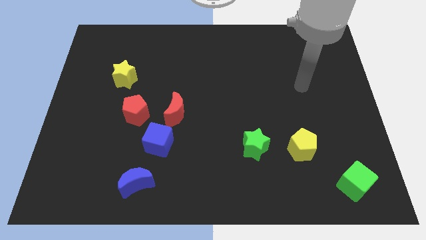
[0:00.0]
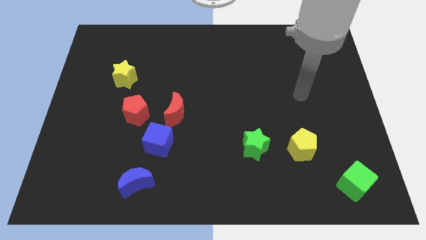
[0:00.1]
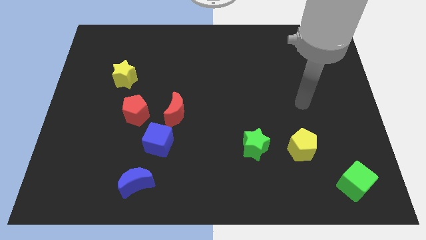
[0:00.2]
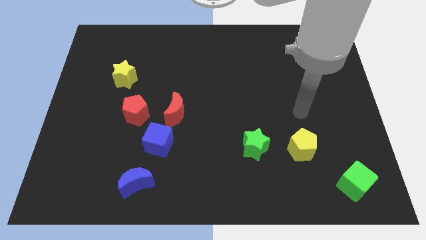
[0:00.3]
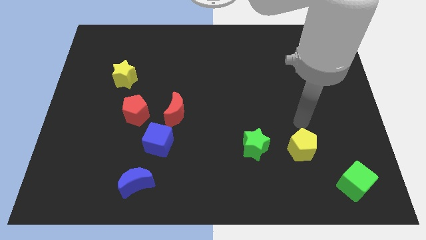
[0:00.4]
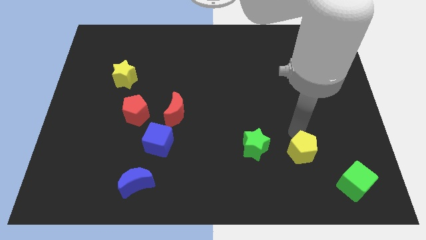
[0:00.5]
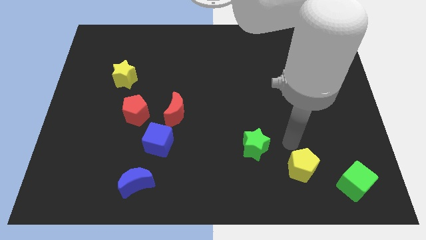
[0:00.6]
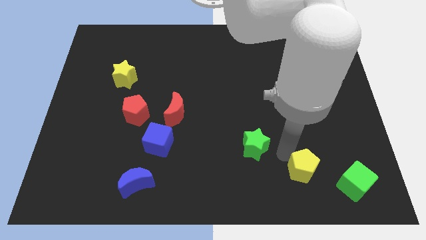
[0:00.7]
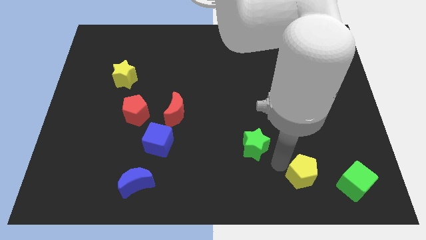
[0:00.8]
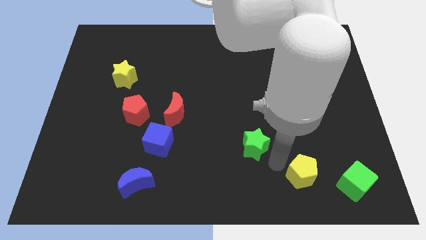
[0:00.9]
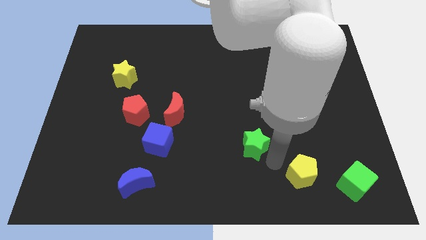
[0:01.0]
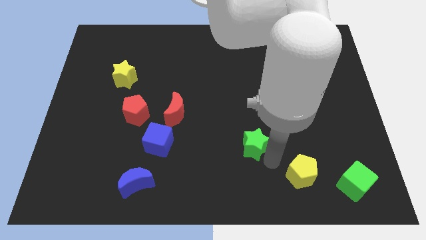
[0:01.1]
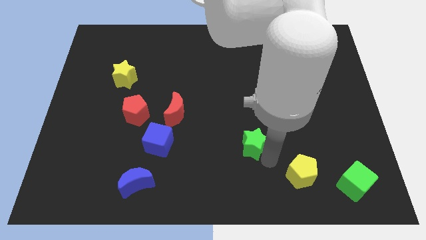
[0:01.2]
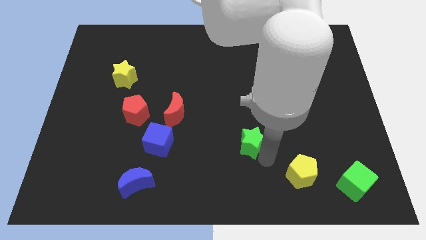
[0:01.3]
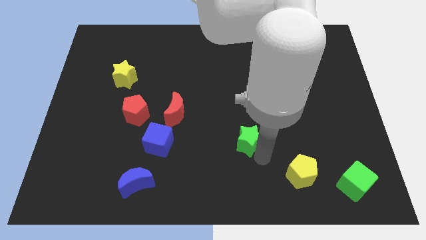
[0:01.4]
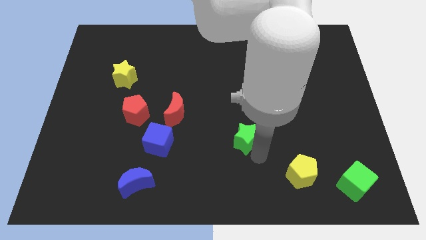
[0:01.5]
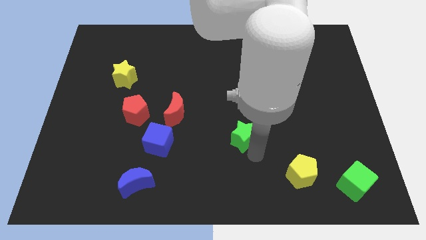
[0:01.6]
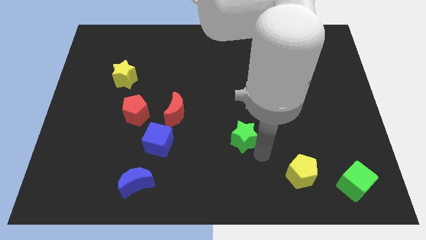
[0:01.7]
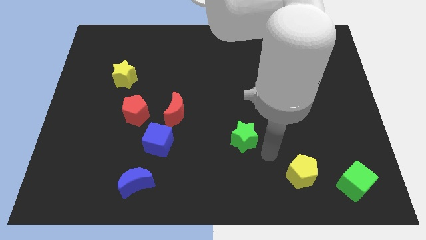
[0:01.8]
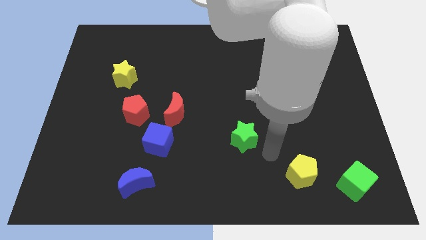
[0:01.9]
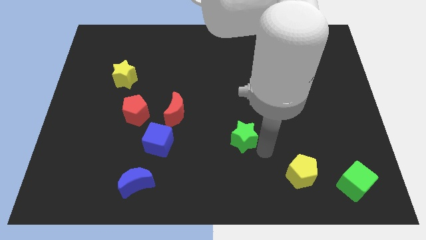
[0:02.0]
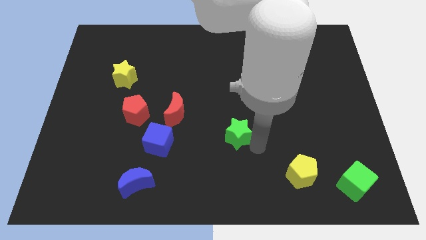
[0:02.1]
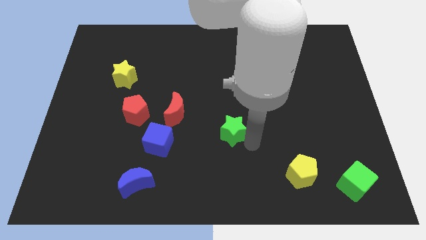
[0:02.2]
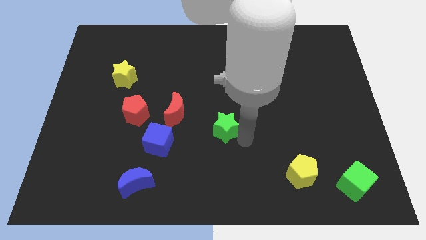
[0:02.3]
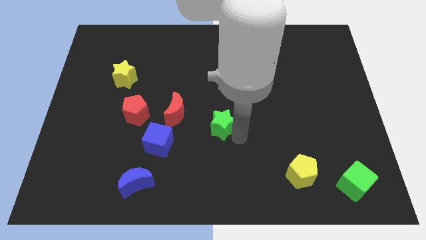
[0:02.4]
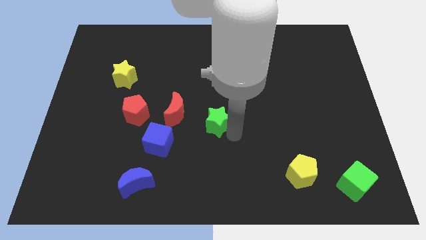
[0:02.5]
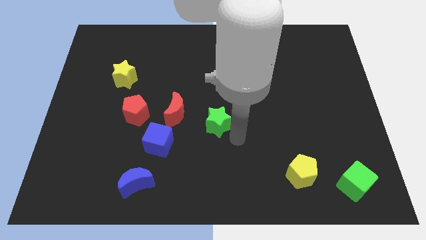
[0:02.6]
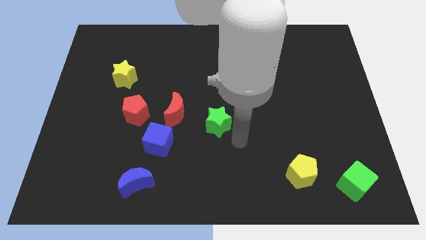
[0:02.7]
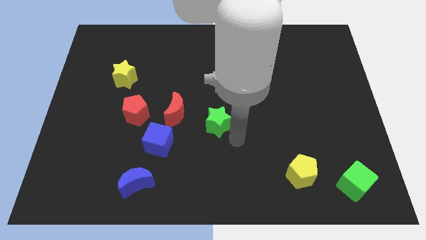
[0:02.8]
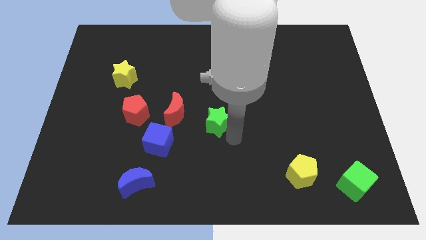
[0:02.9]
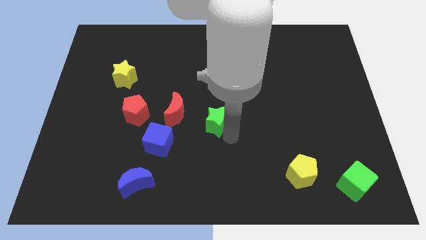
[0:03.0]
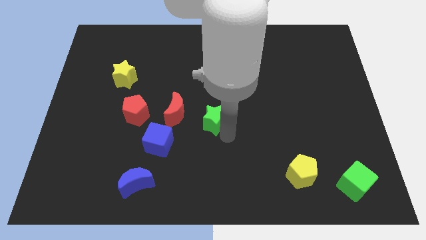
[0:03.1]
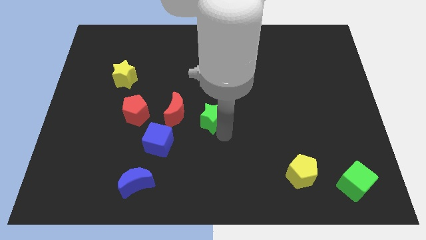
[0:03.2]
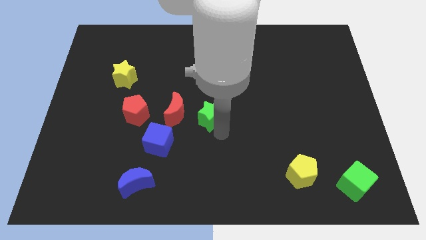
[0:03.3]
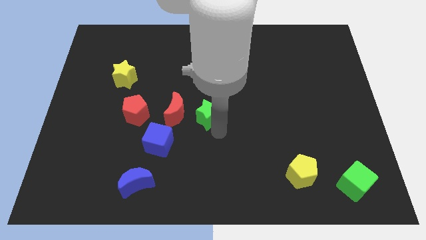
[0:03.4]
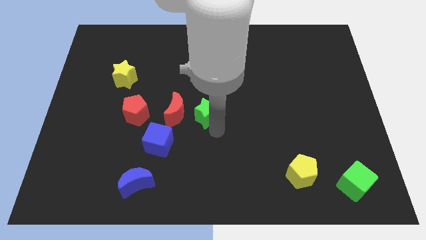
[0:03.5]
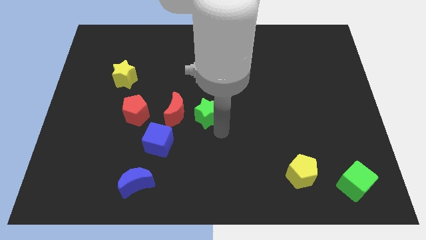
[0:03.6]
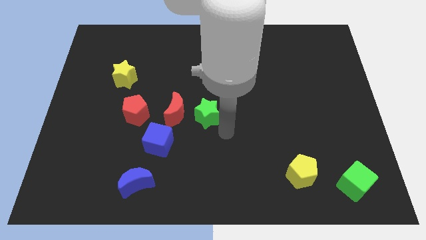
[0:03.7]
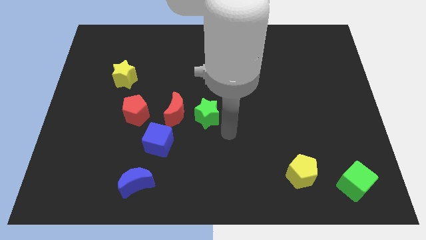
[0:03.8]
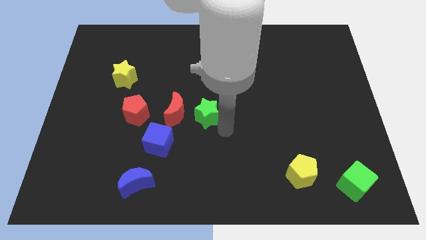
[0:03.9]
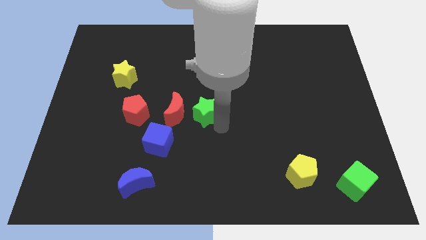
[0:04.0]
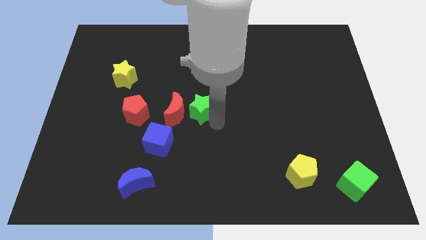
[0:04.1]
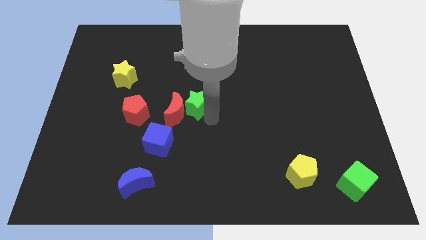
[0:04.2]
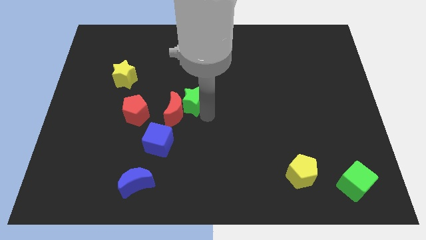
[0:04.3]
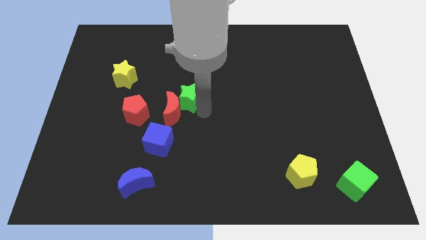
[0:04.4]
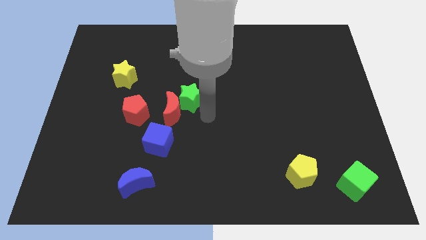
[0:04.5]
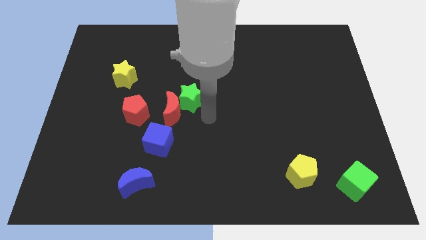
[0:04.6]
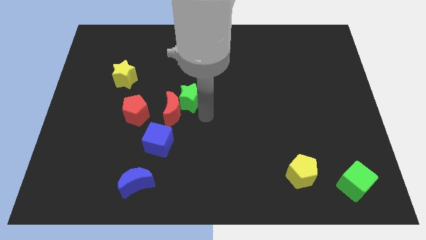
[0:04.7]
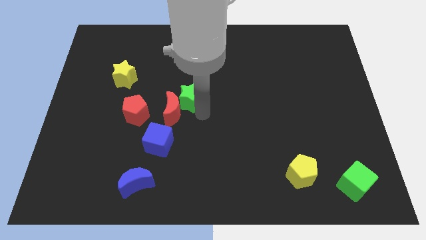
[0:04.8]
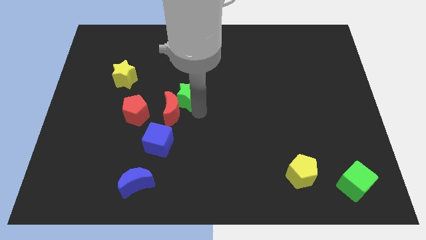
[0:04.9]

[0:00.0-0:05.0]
move the green star up and left

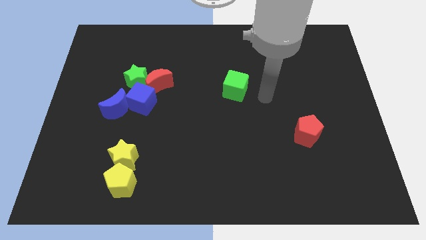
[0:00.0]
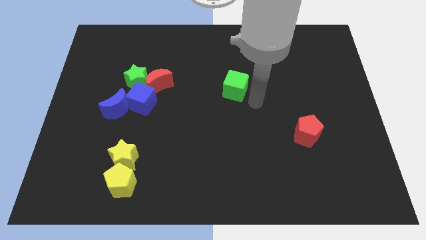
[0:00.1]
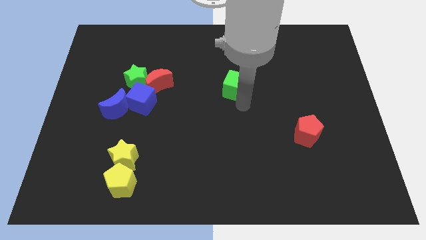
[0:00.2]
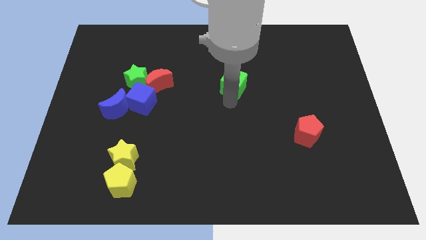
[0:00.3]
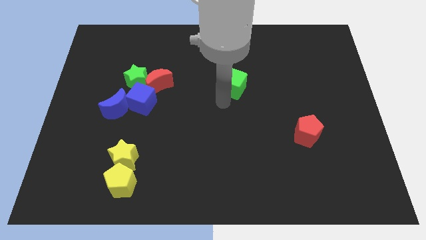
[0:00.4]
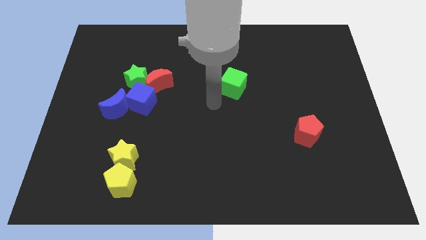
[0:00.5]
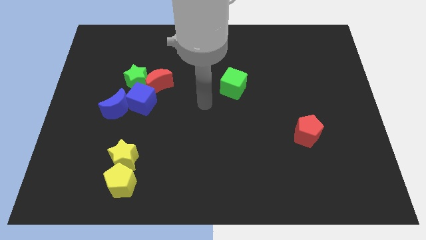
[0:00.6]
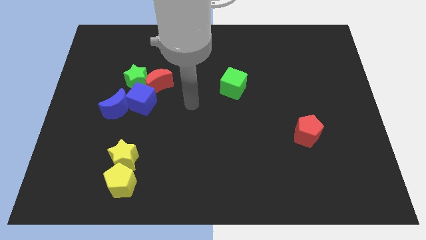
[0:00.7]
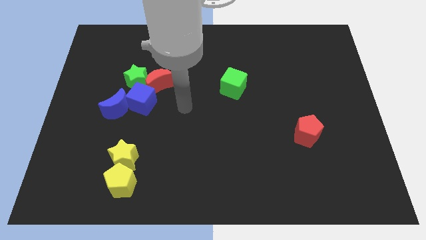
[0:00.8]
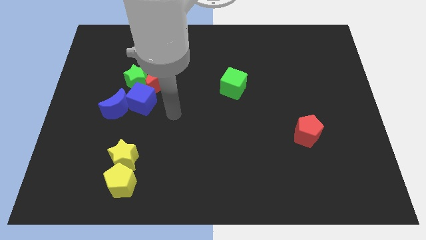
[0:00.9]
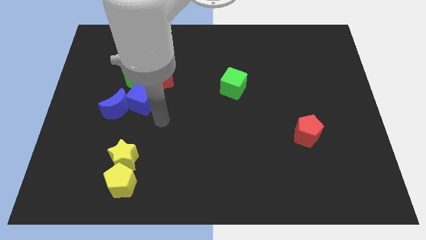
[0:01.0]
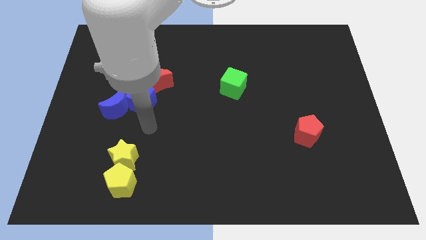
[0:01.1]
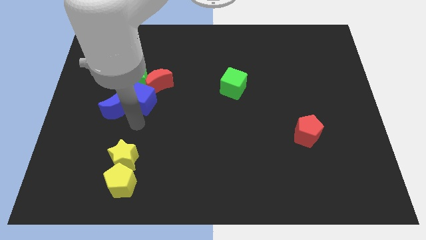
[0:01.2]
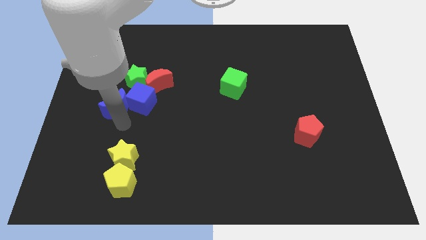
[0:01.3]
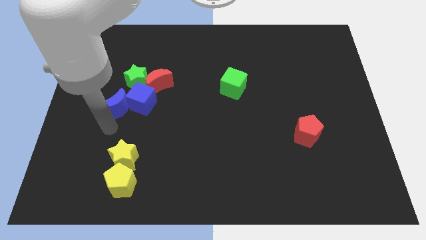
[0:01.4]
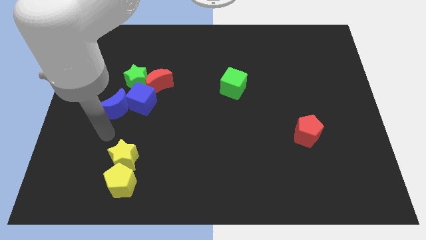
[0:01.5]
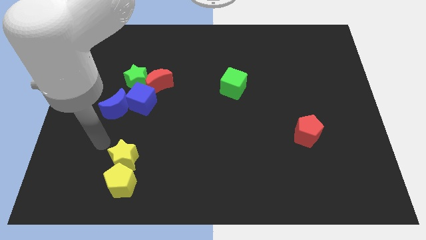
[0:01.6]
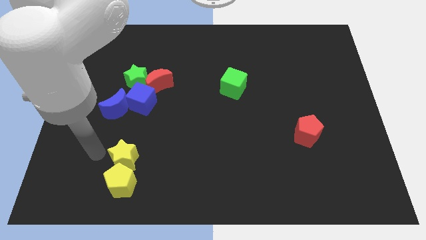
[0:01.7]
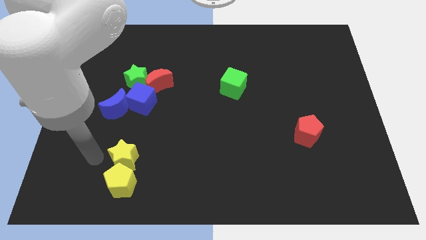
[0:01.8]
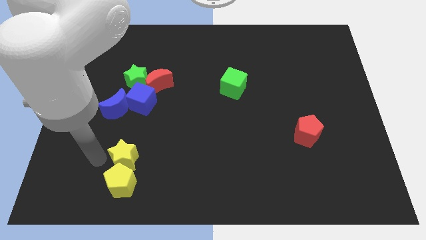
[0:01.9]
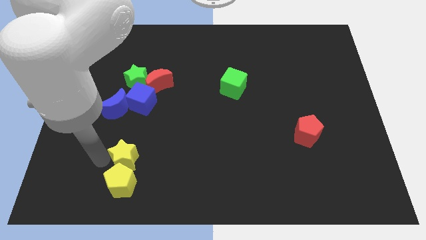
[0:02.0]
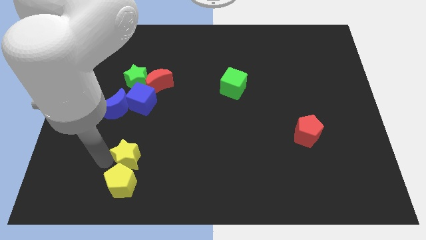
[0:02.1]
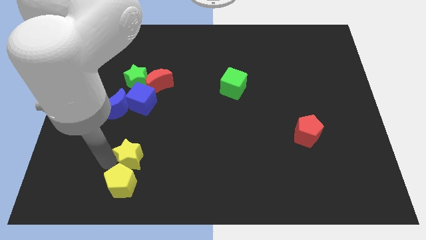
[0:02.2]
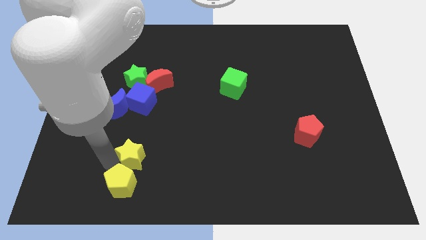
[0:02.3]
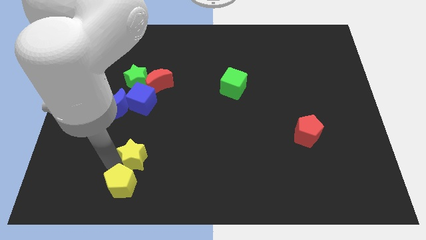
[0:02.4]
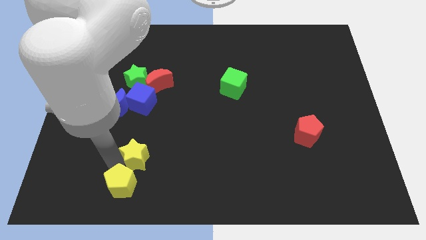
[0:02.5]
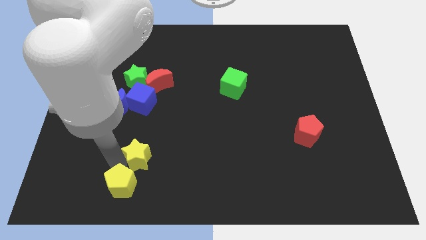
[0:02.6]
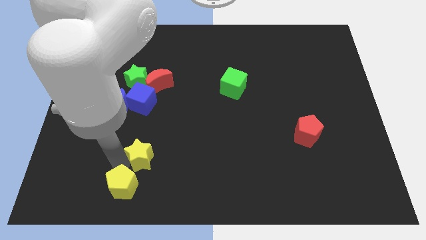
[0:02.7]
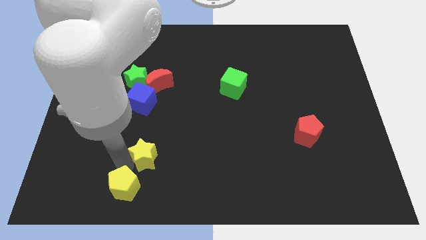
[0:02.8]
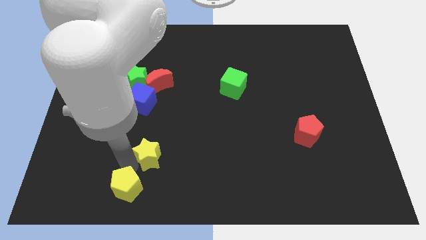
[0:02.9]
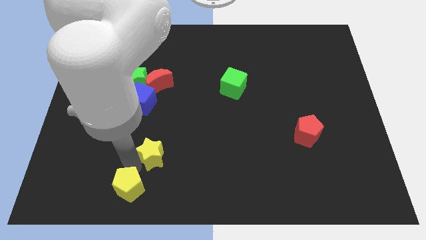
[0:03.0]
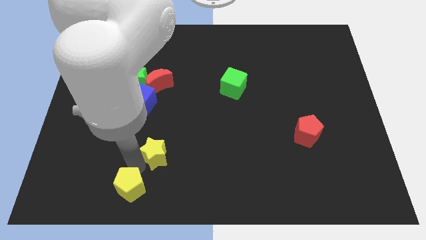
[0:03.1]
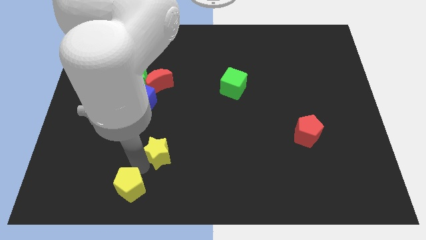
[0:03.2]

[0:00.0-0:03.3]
slide the yellow star somewhat to the right
